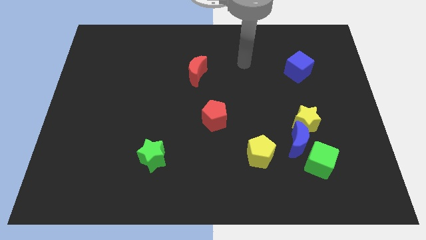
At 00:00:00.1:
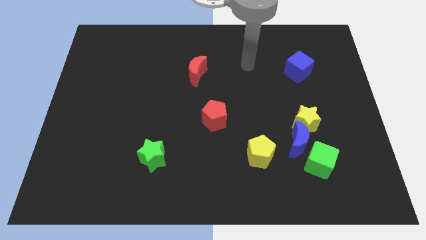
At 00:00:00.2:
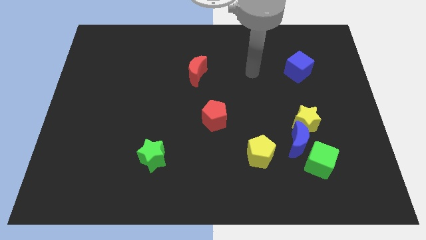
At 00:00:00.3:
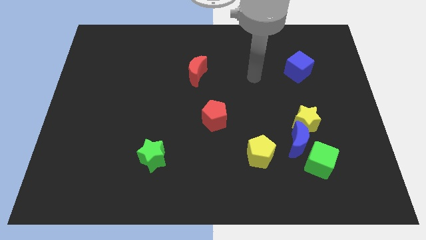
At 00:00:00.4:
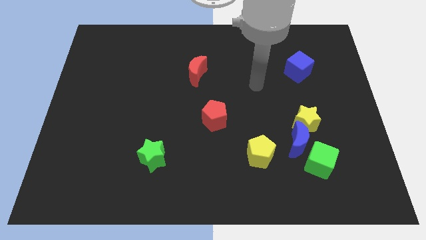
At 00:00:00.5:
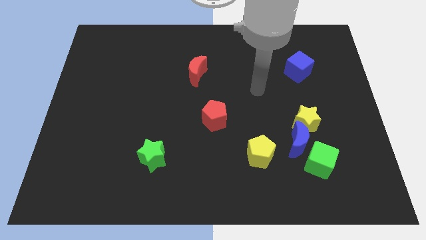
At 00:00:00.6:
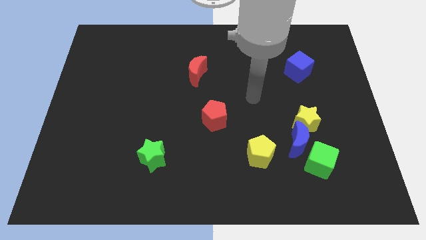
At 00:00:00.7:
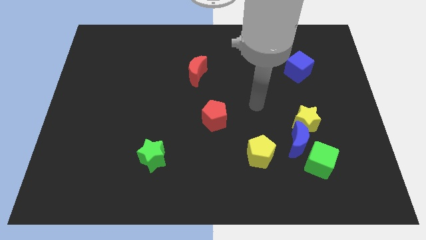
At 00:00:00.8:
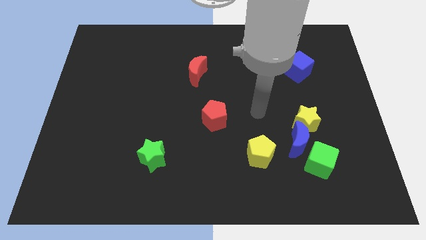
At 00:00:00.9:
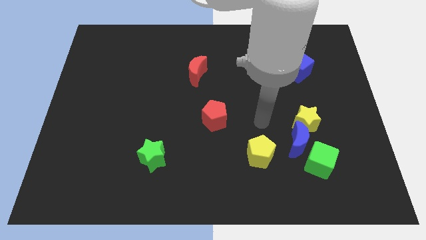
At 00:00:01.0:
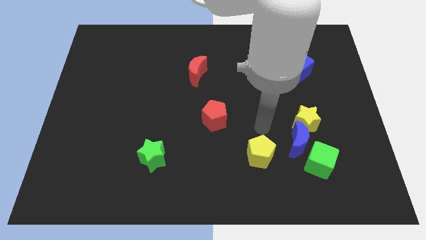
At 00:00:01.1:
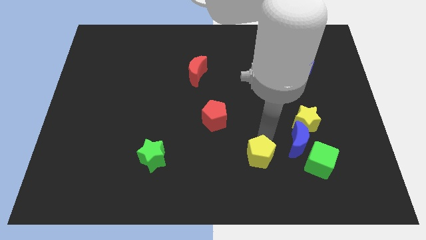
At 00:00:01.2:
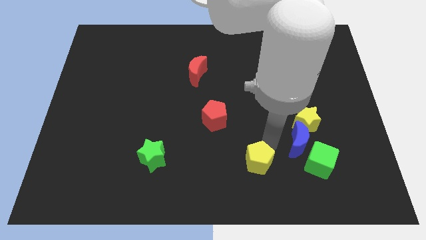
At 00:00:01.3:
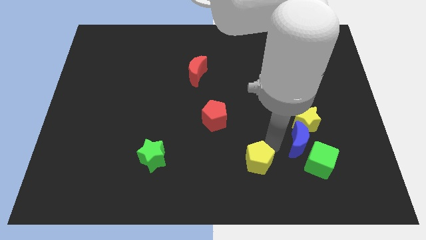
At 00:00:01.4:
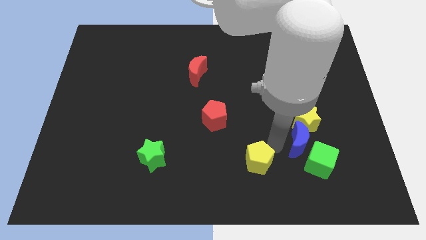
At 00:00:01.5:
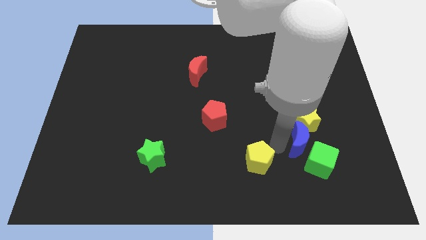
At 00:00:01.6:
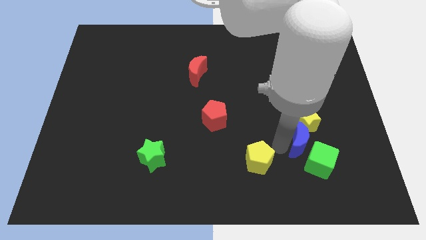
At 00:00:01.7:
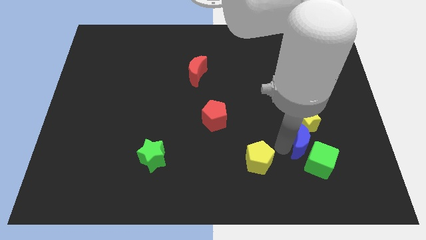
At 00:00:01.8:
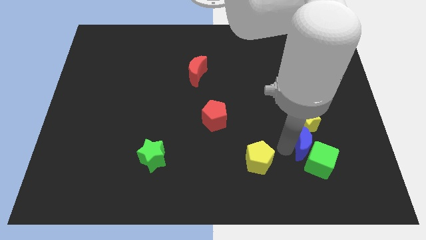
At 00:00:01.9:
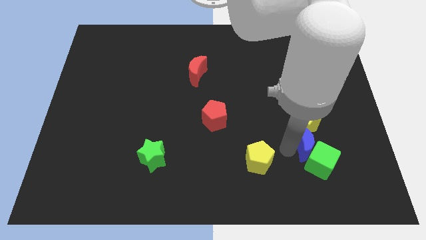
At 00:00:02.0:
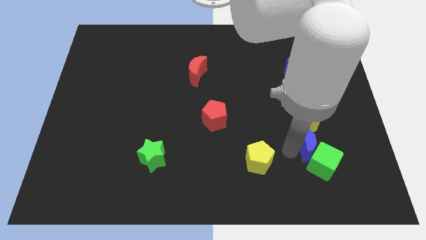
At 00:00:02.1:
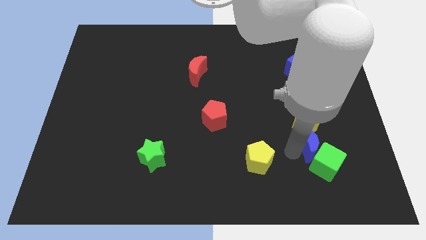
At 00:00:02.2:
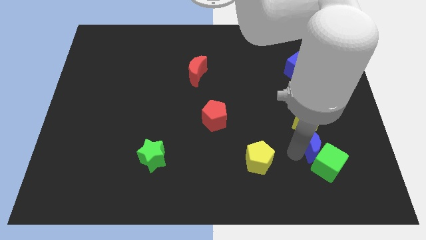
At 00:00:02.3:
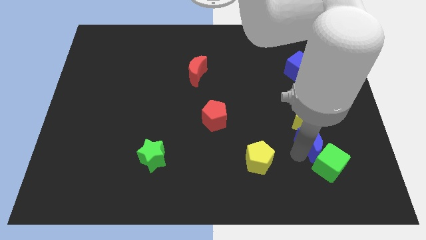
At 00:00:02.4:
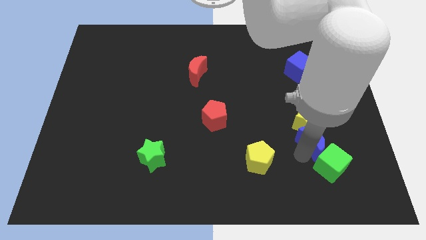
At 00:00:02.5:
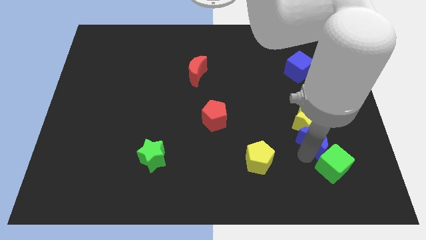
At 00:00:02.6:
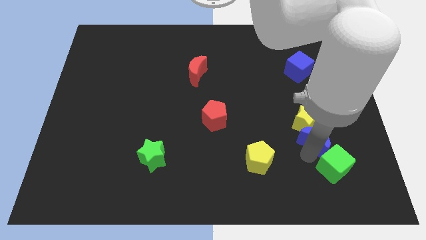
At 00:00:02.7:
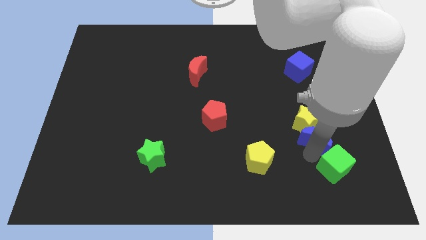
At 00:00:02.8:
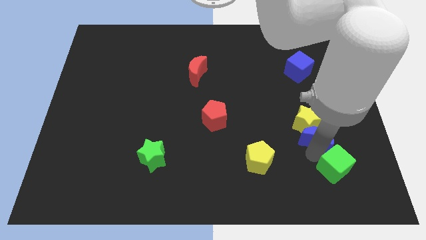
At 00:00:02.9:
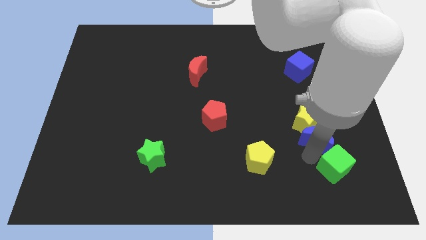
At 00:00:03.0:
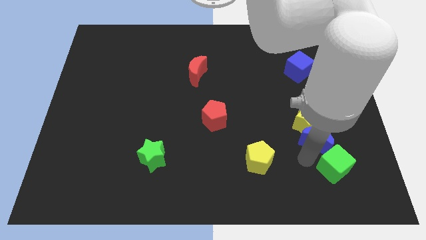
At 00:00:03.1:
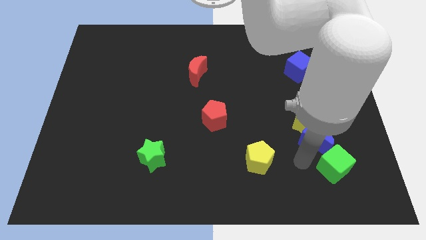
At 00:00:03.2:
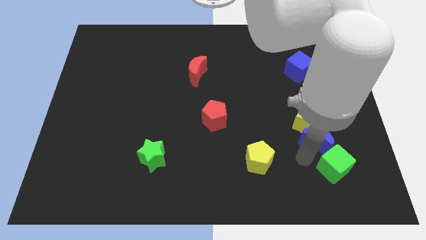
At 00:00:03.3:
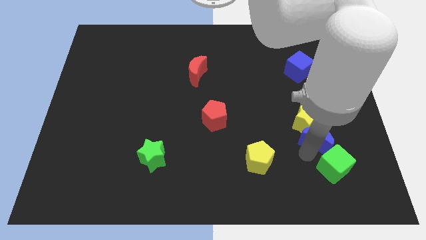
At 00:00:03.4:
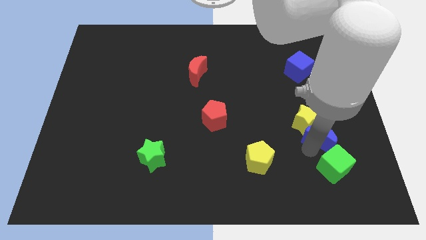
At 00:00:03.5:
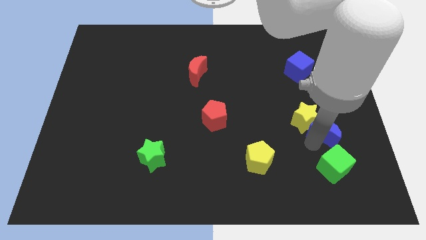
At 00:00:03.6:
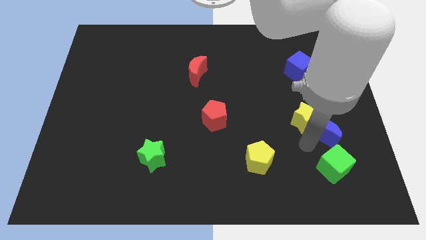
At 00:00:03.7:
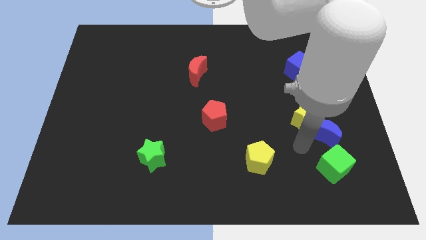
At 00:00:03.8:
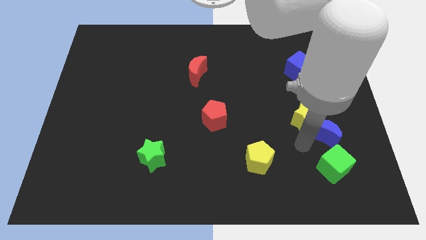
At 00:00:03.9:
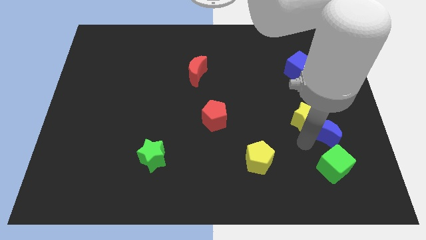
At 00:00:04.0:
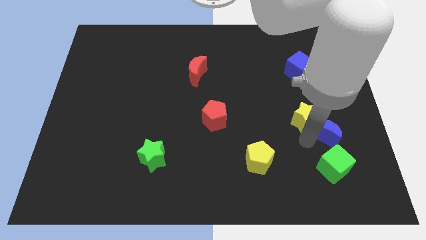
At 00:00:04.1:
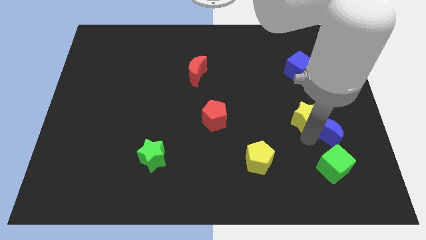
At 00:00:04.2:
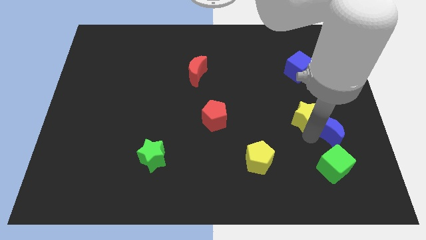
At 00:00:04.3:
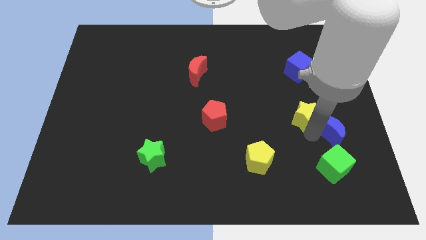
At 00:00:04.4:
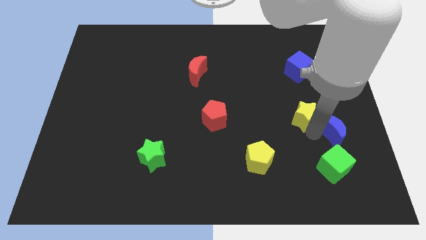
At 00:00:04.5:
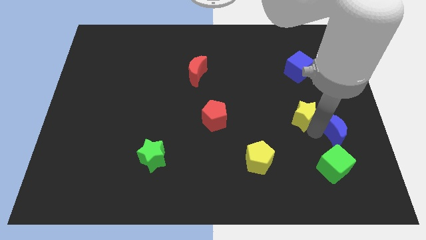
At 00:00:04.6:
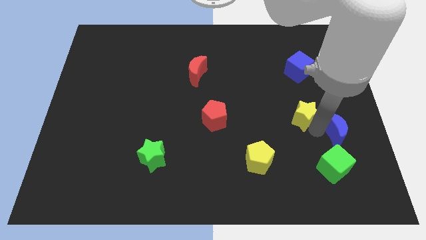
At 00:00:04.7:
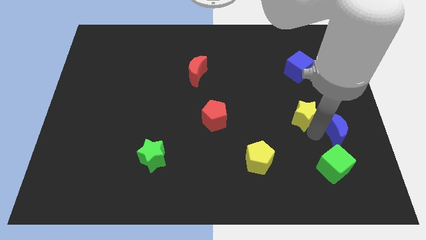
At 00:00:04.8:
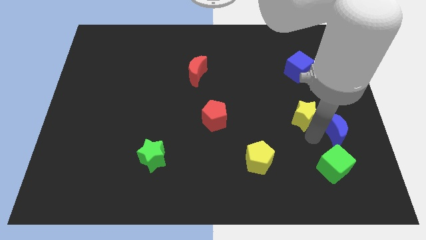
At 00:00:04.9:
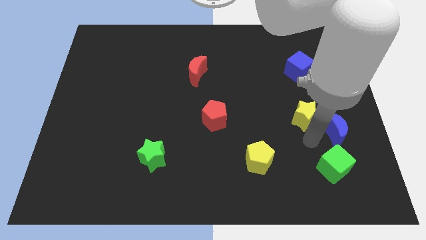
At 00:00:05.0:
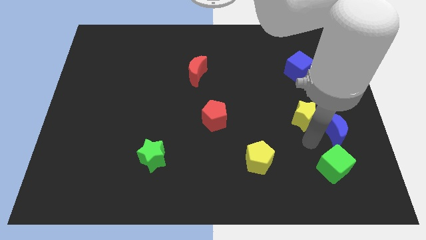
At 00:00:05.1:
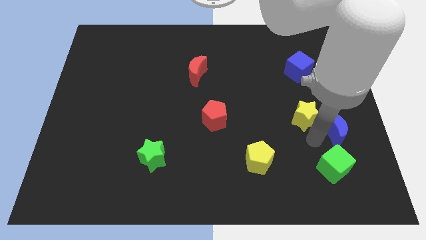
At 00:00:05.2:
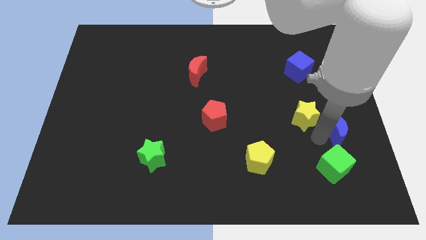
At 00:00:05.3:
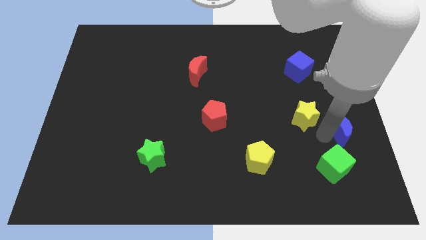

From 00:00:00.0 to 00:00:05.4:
pull the blue moon apart from the yellow star, green cube, and yellow pentagon

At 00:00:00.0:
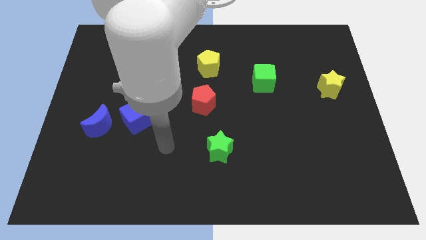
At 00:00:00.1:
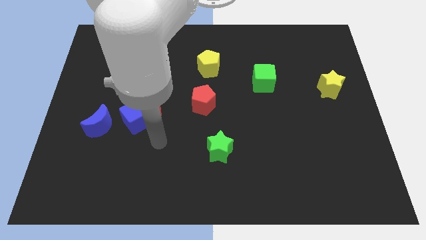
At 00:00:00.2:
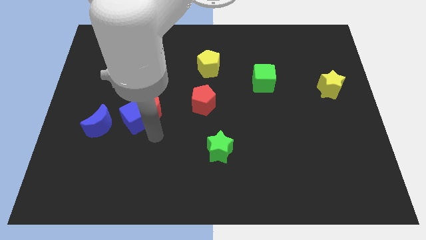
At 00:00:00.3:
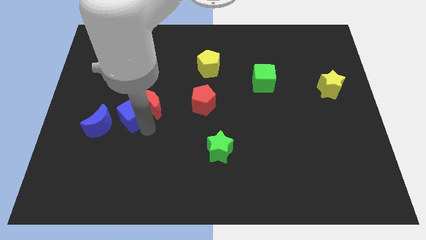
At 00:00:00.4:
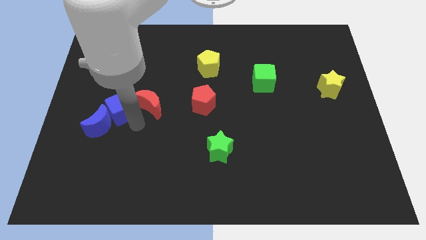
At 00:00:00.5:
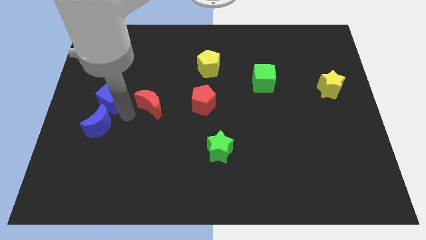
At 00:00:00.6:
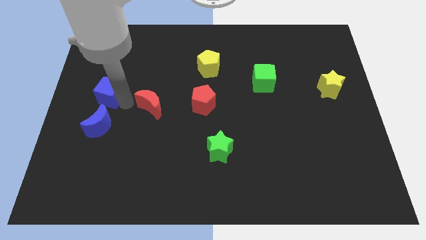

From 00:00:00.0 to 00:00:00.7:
pull the red moon apart from the blue cube

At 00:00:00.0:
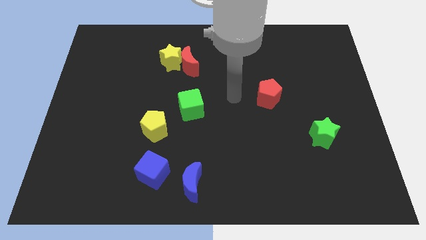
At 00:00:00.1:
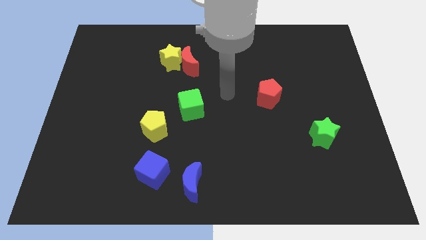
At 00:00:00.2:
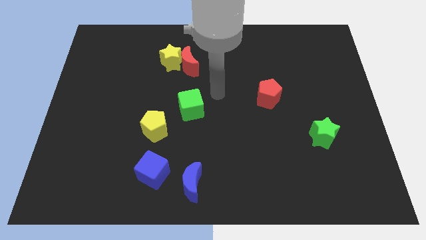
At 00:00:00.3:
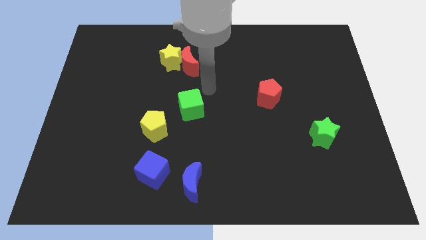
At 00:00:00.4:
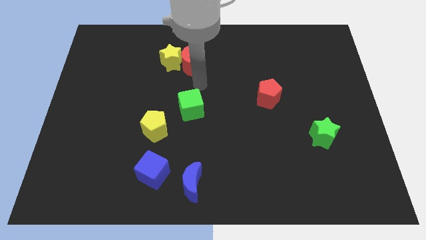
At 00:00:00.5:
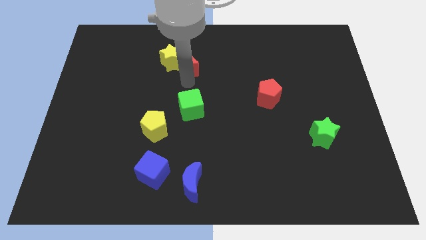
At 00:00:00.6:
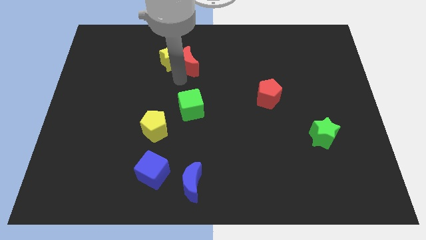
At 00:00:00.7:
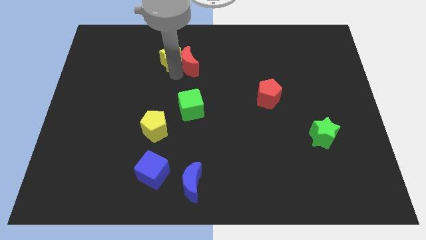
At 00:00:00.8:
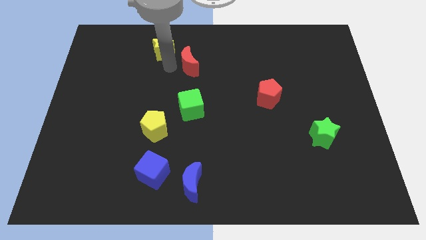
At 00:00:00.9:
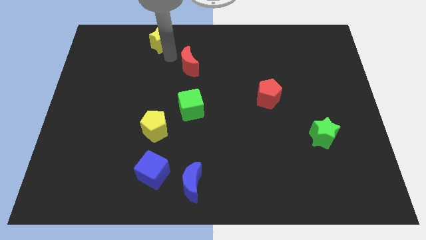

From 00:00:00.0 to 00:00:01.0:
move the red moon away from the yellow star

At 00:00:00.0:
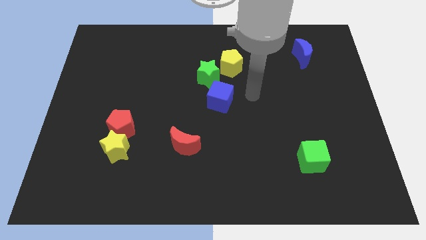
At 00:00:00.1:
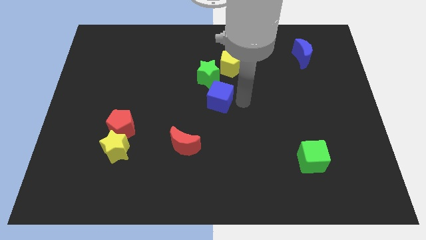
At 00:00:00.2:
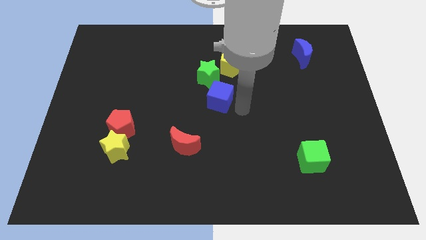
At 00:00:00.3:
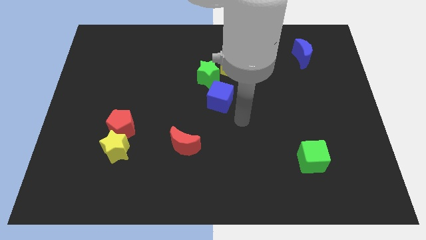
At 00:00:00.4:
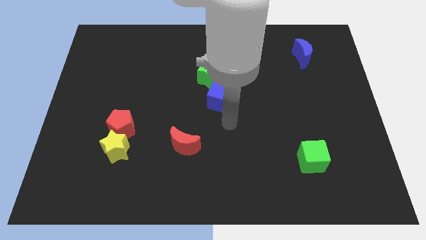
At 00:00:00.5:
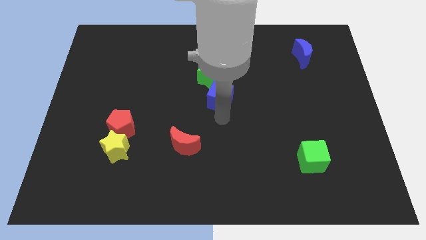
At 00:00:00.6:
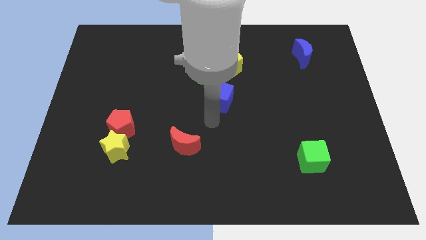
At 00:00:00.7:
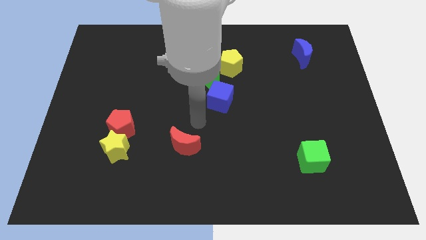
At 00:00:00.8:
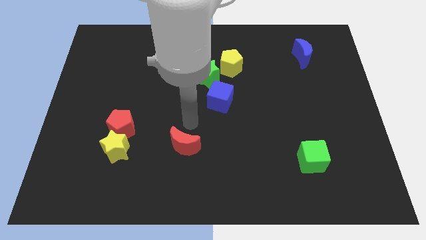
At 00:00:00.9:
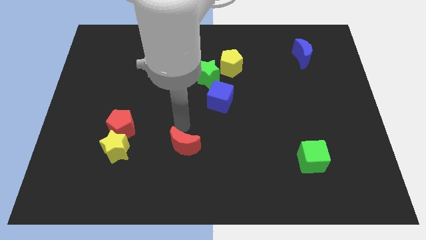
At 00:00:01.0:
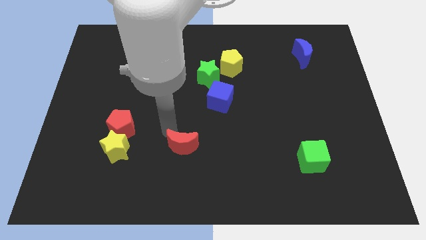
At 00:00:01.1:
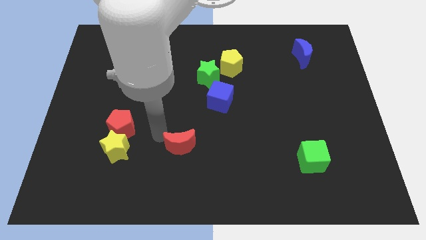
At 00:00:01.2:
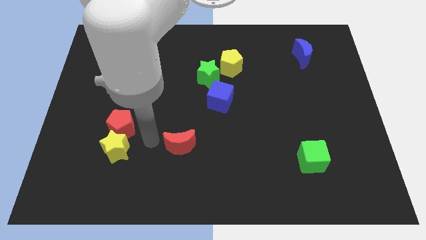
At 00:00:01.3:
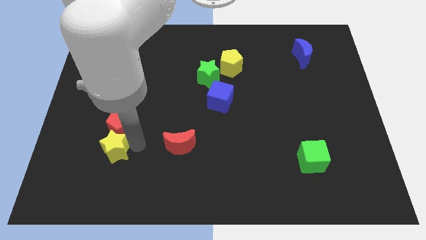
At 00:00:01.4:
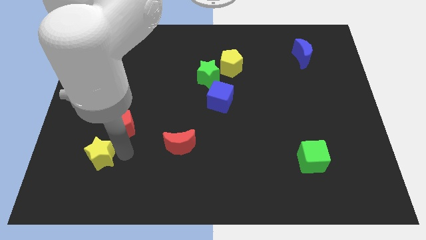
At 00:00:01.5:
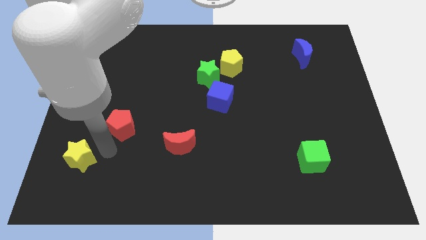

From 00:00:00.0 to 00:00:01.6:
move the red pentagon away from the yellow star

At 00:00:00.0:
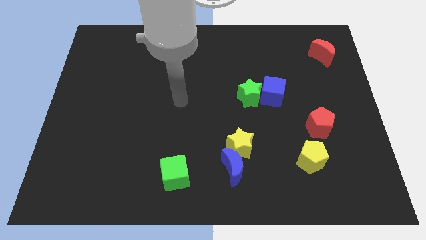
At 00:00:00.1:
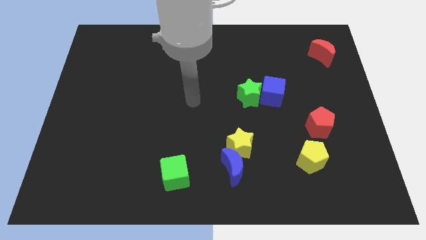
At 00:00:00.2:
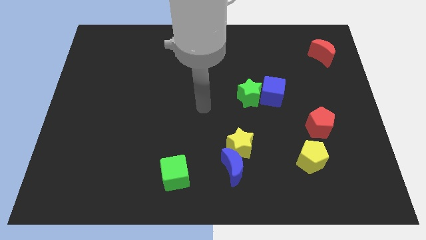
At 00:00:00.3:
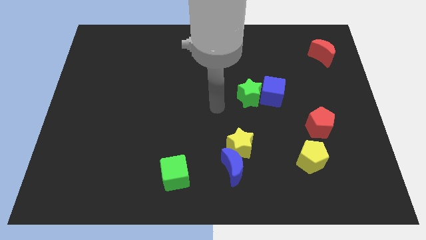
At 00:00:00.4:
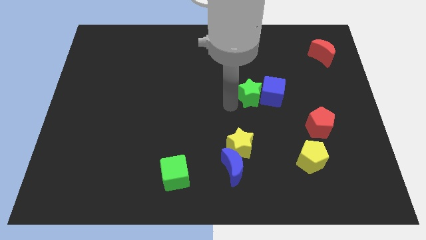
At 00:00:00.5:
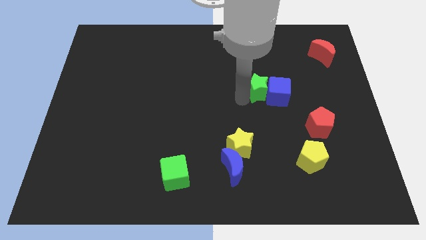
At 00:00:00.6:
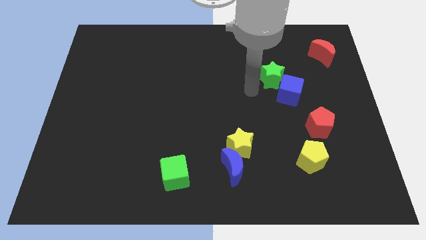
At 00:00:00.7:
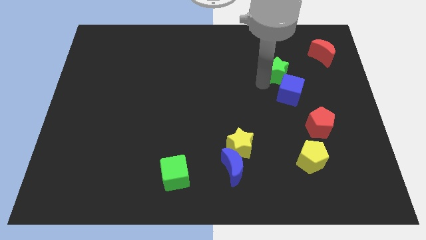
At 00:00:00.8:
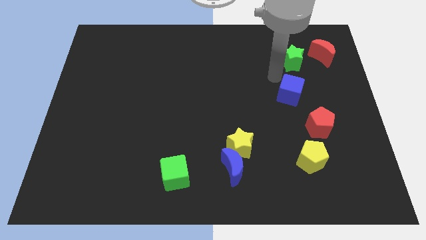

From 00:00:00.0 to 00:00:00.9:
pull the blue cube apart from the green star
